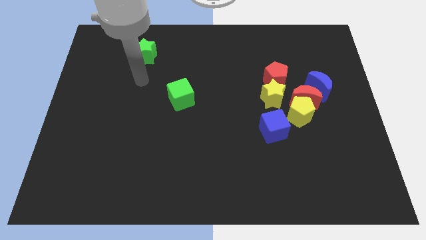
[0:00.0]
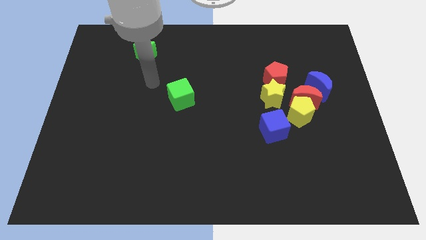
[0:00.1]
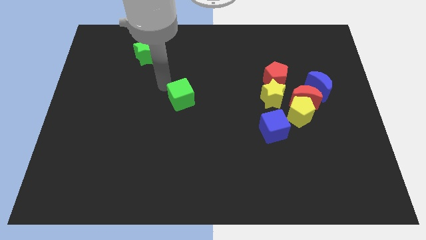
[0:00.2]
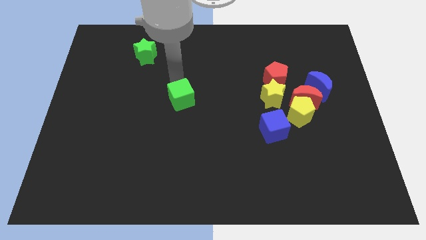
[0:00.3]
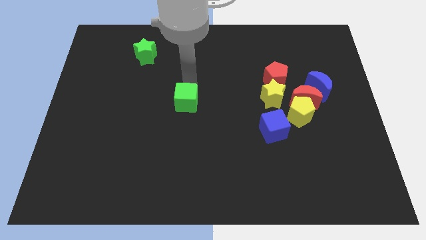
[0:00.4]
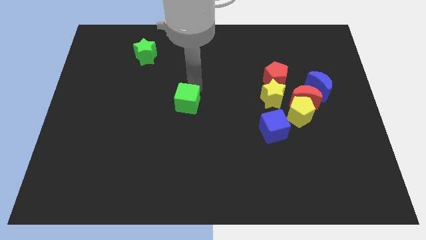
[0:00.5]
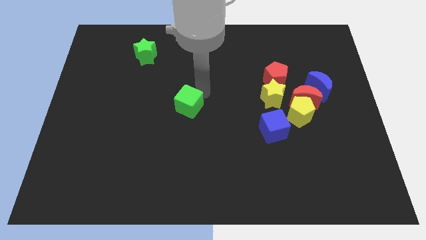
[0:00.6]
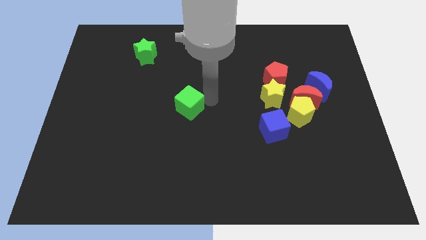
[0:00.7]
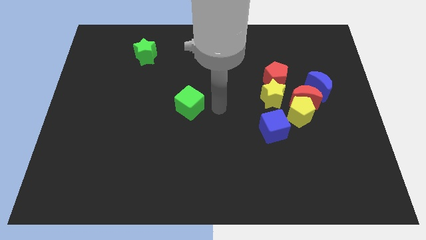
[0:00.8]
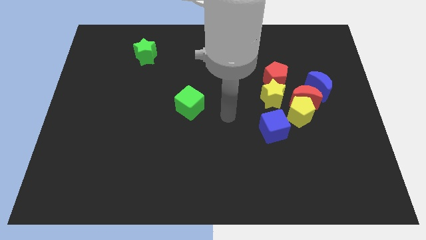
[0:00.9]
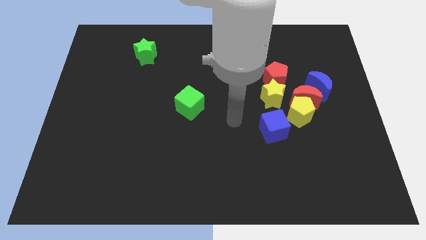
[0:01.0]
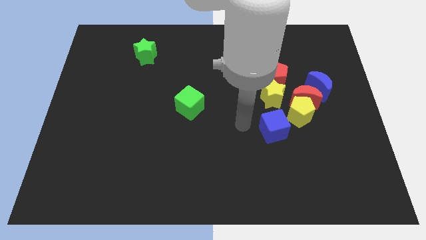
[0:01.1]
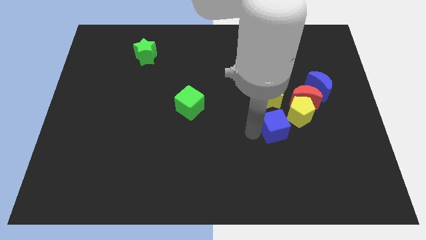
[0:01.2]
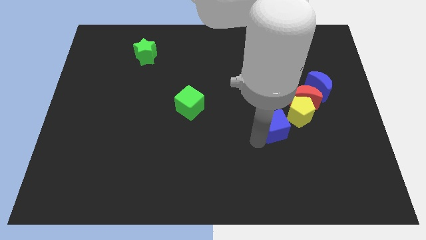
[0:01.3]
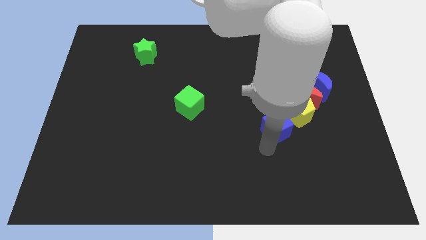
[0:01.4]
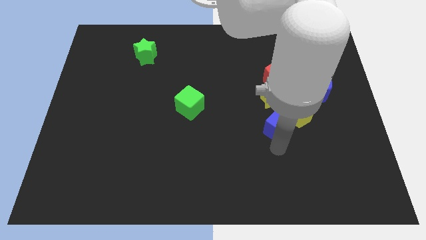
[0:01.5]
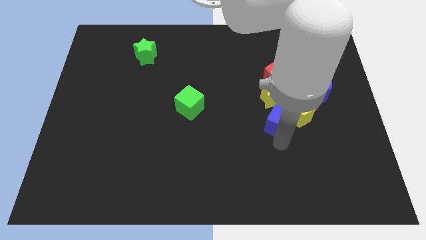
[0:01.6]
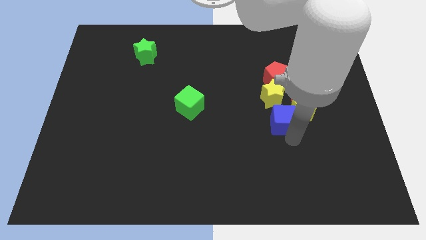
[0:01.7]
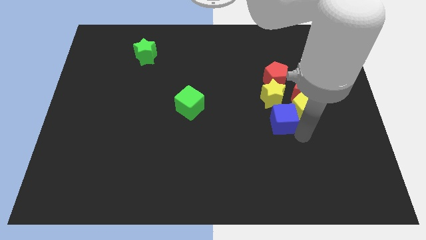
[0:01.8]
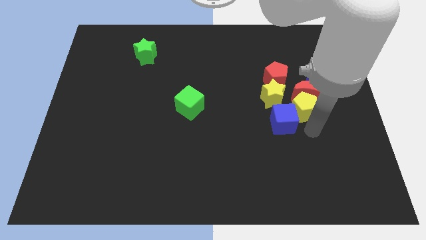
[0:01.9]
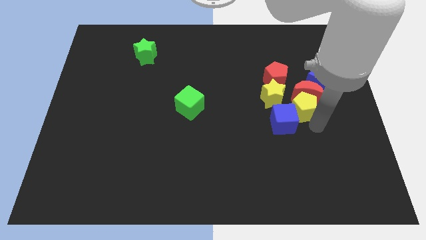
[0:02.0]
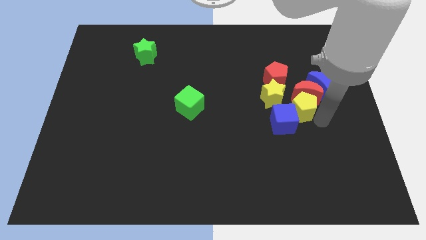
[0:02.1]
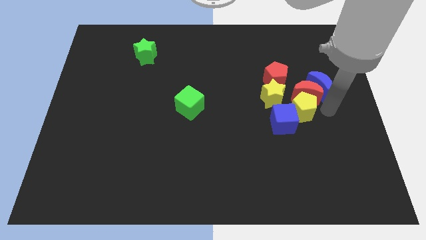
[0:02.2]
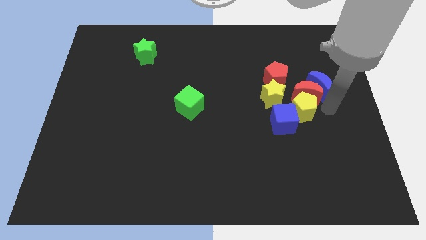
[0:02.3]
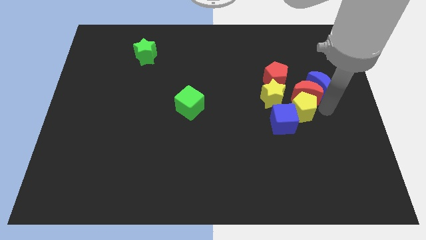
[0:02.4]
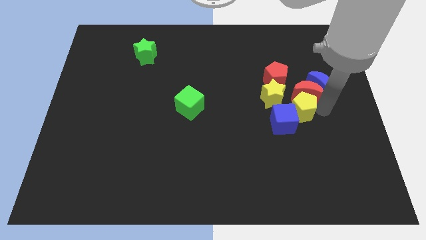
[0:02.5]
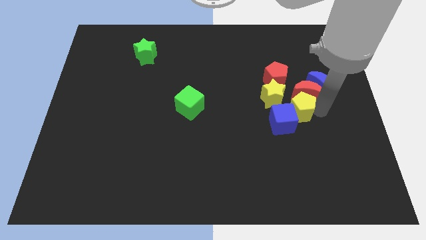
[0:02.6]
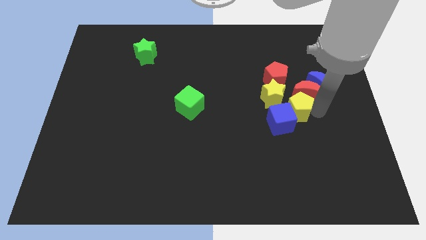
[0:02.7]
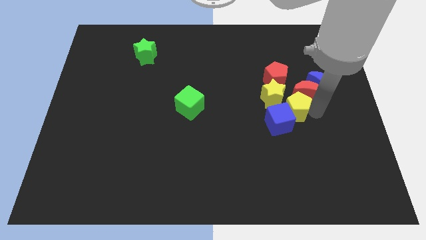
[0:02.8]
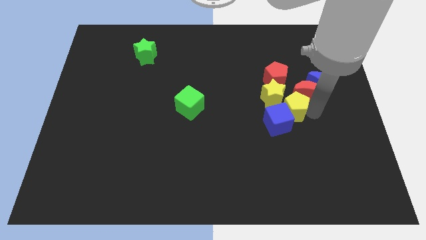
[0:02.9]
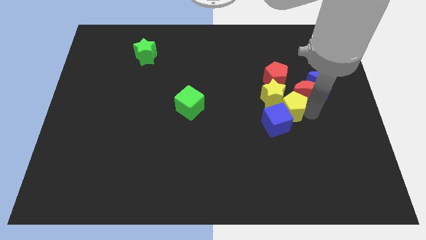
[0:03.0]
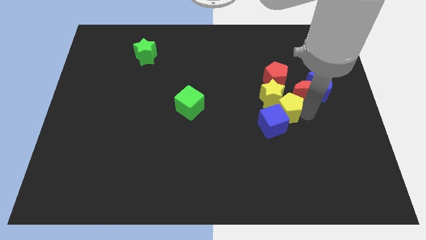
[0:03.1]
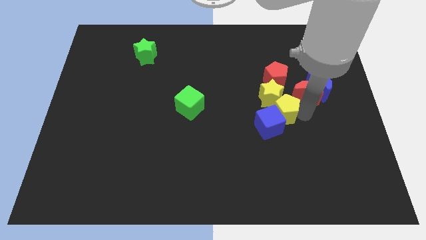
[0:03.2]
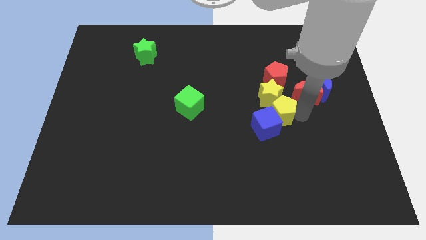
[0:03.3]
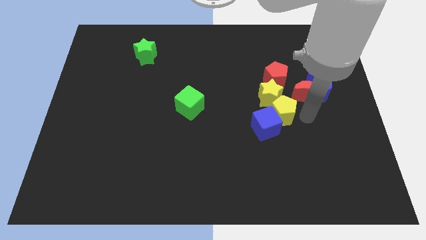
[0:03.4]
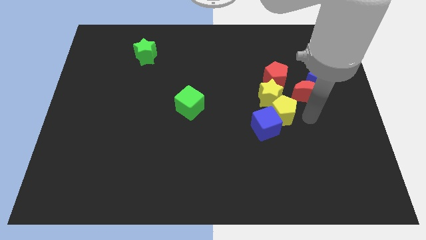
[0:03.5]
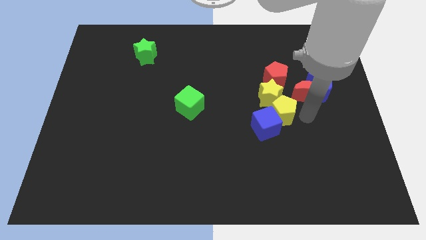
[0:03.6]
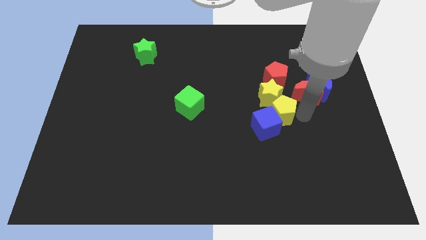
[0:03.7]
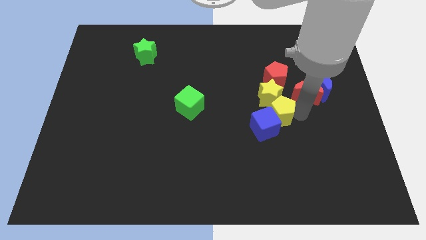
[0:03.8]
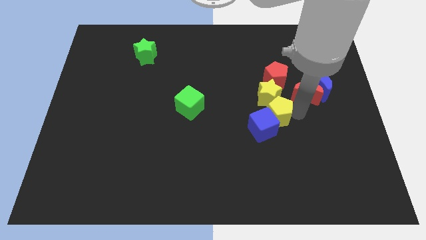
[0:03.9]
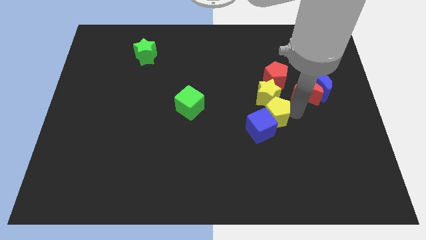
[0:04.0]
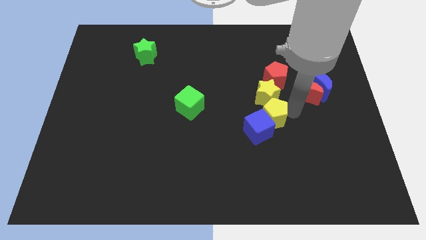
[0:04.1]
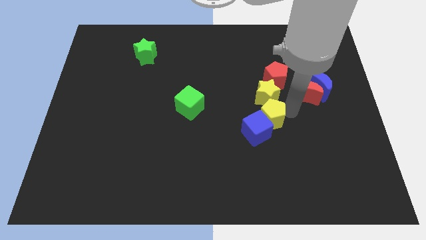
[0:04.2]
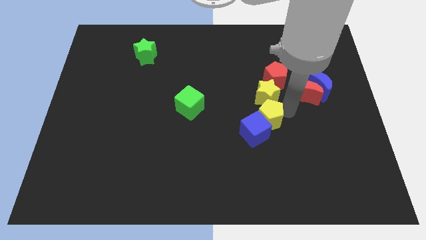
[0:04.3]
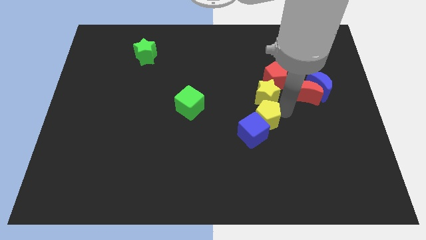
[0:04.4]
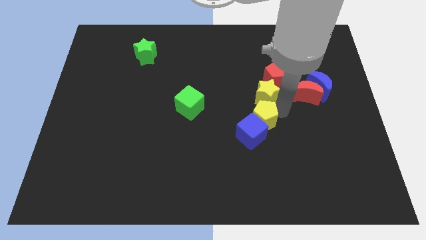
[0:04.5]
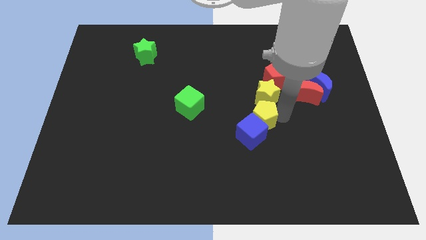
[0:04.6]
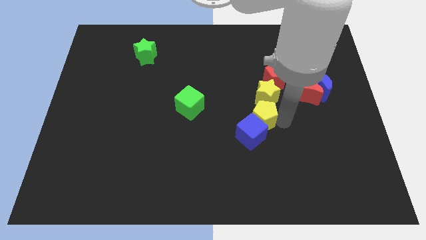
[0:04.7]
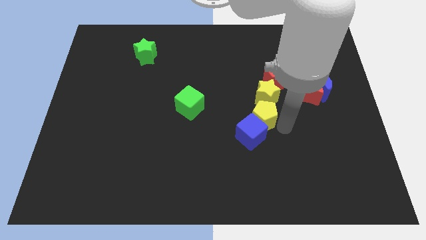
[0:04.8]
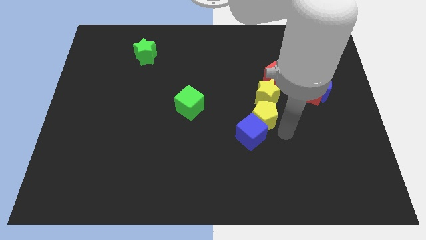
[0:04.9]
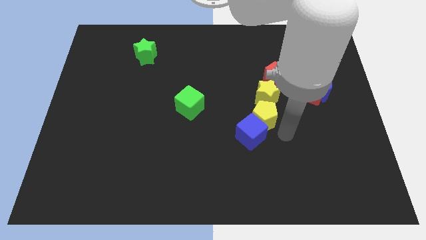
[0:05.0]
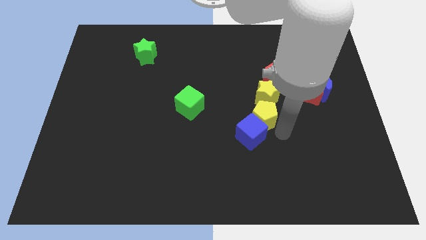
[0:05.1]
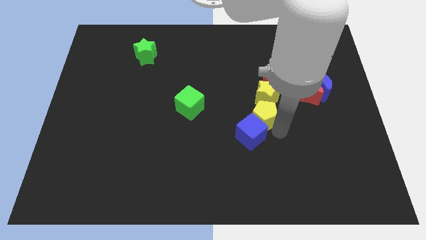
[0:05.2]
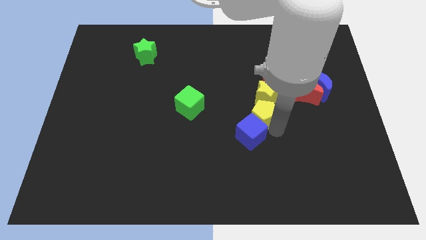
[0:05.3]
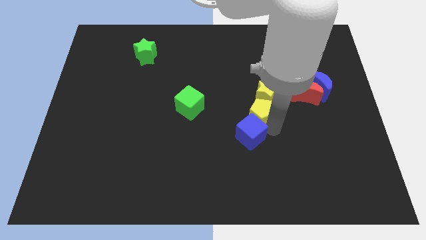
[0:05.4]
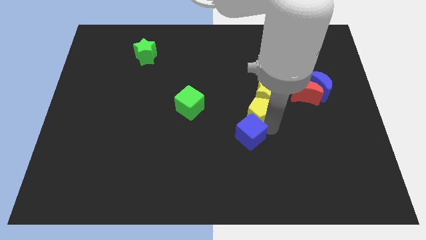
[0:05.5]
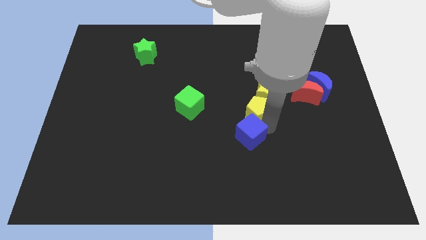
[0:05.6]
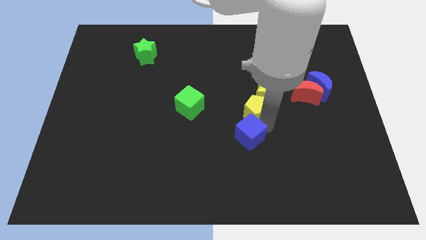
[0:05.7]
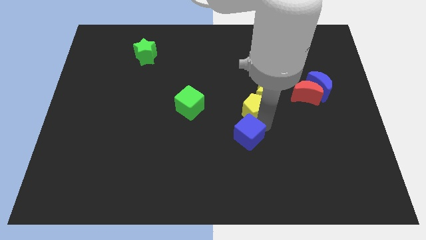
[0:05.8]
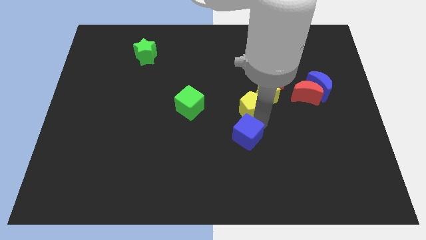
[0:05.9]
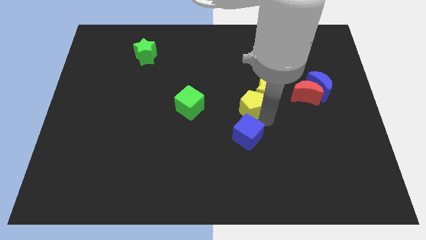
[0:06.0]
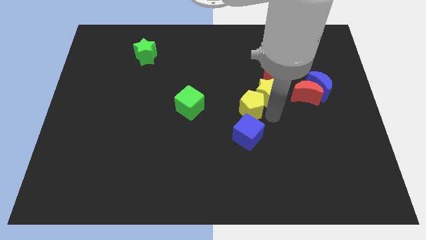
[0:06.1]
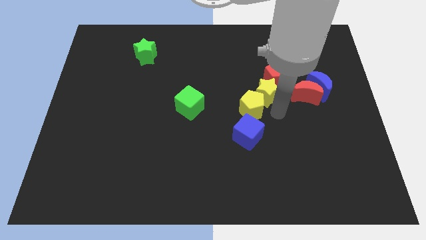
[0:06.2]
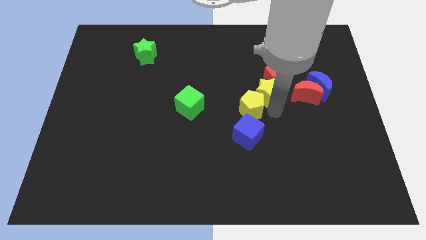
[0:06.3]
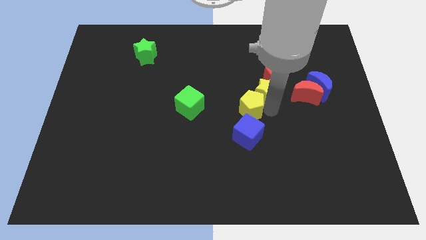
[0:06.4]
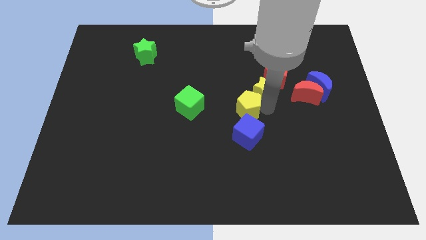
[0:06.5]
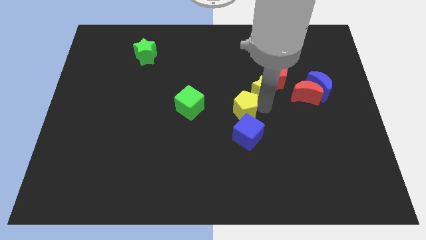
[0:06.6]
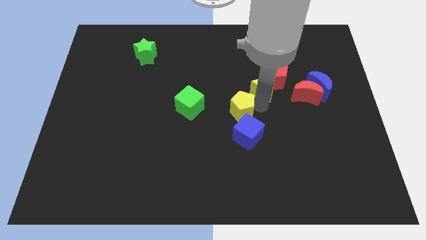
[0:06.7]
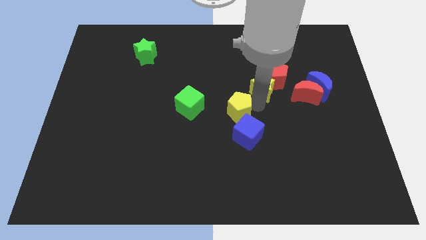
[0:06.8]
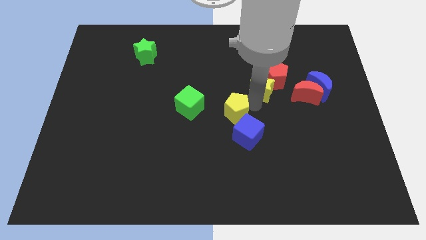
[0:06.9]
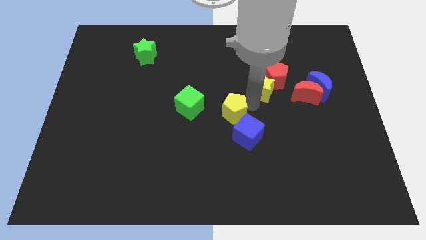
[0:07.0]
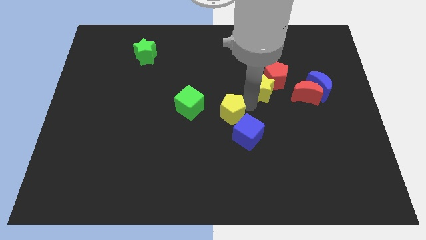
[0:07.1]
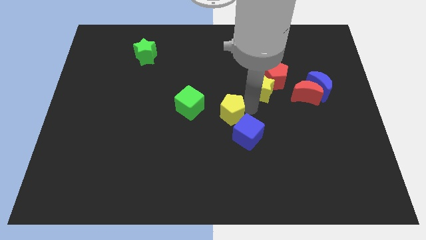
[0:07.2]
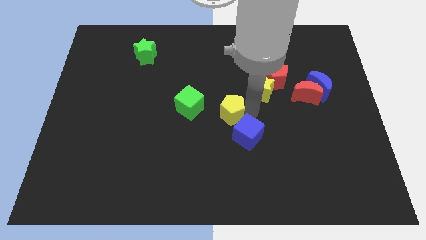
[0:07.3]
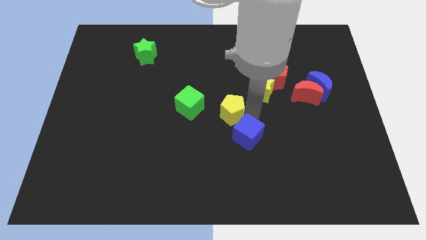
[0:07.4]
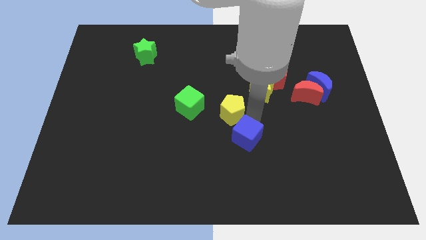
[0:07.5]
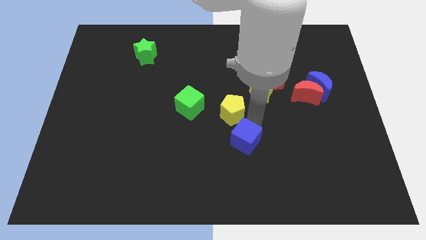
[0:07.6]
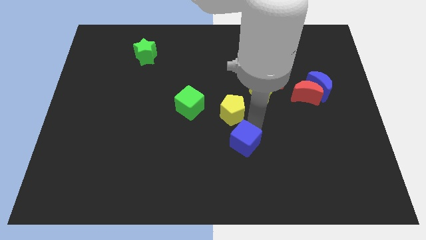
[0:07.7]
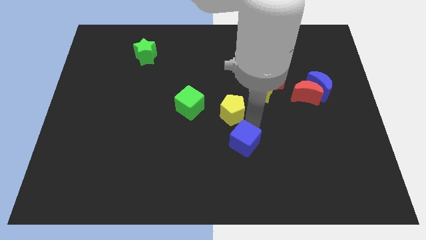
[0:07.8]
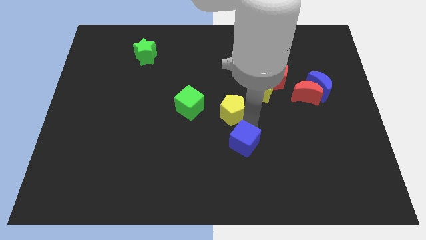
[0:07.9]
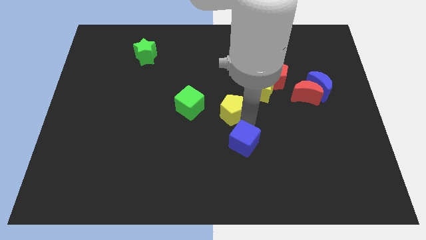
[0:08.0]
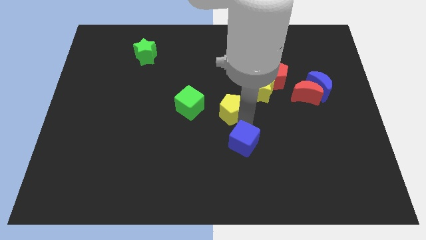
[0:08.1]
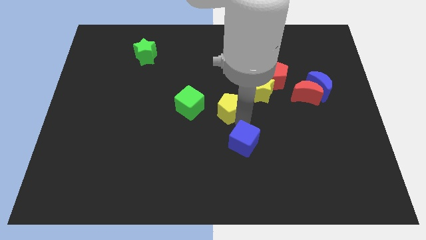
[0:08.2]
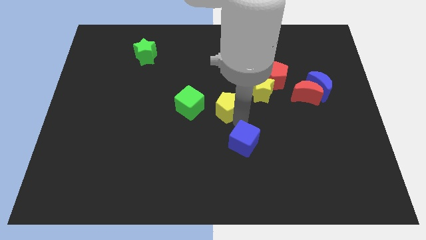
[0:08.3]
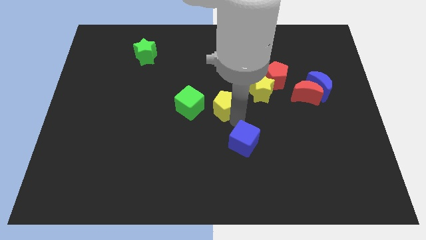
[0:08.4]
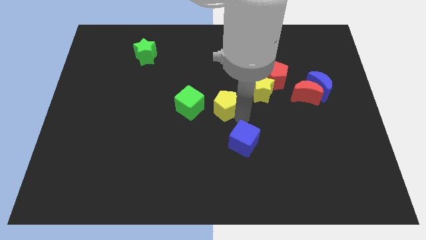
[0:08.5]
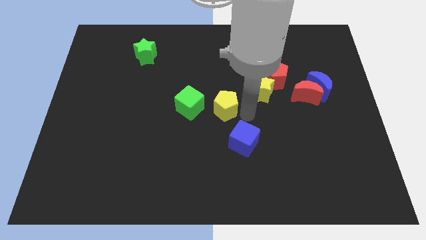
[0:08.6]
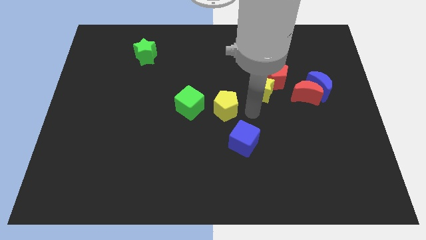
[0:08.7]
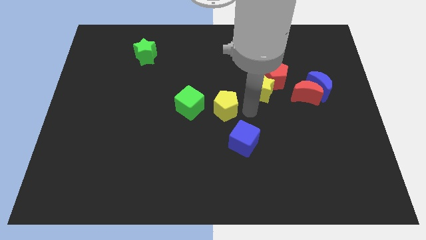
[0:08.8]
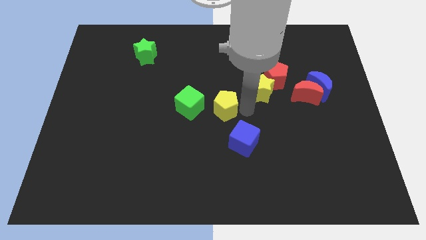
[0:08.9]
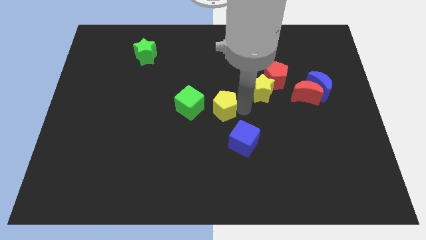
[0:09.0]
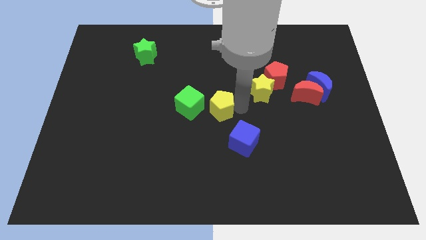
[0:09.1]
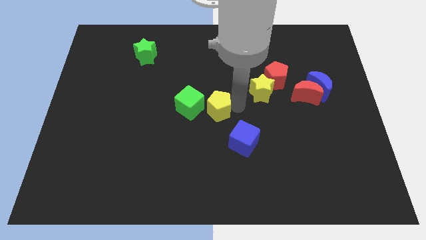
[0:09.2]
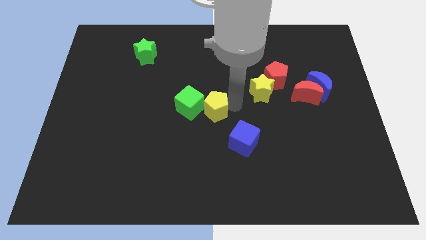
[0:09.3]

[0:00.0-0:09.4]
move the yellow pentagon close to the green cube
